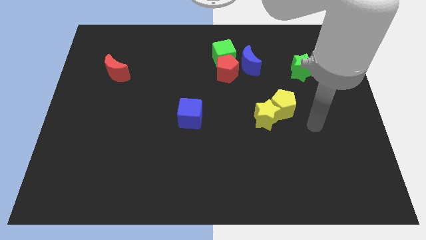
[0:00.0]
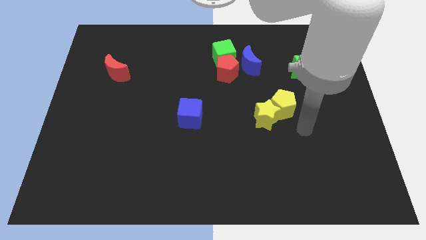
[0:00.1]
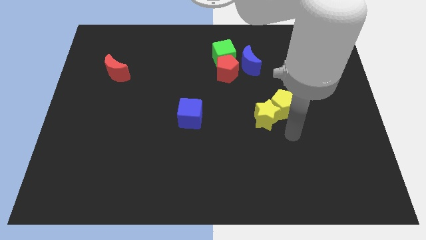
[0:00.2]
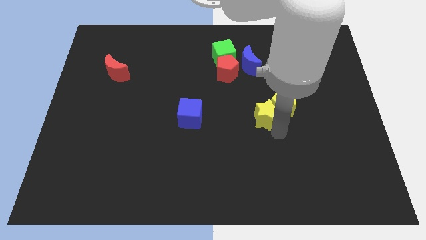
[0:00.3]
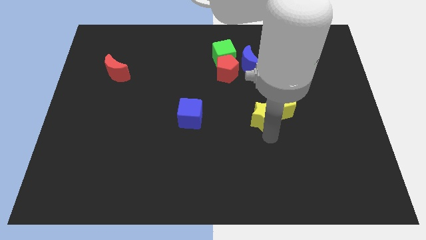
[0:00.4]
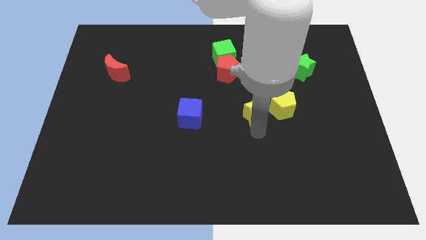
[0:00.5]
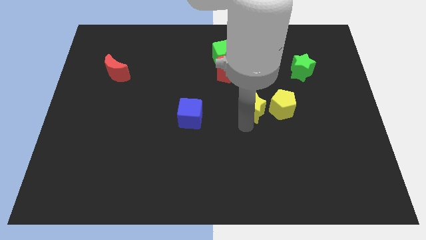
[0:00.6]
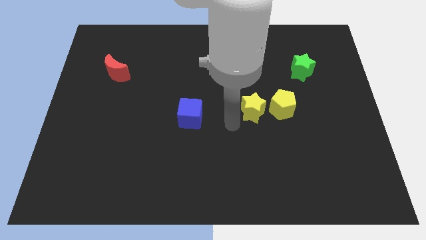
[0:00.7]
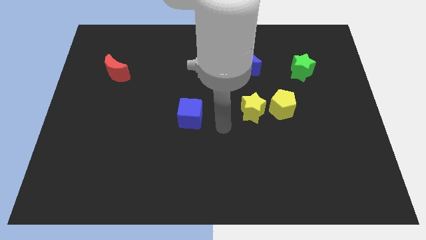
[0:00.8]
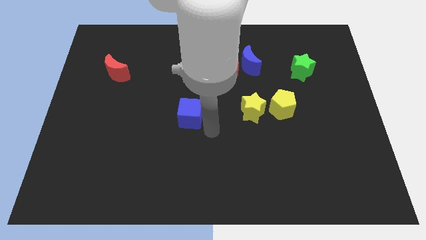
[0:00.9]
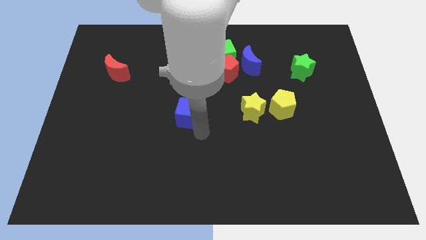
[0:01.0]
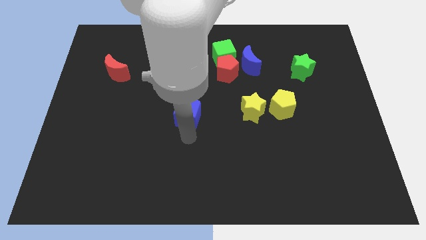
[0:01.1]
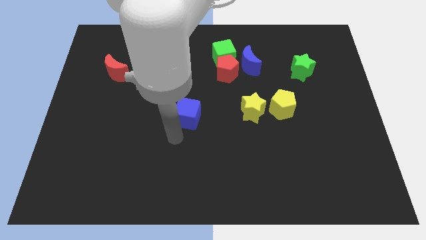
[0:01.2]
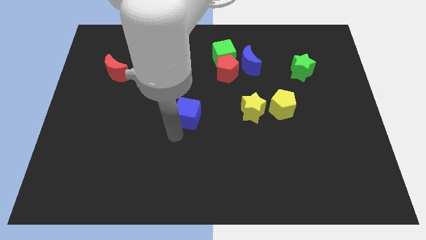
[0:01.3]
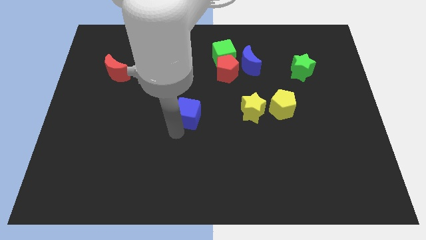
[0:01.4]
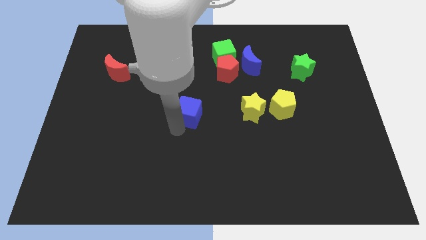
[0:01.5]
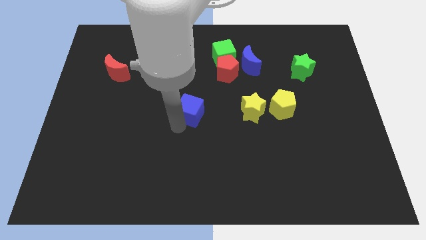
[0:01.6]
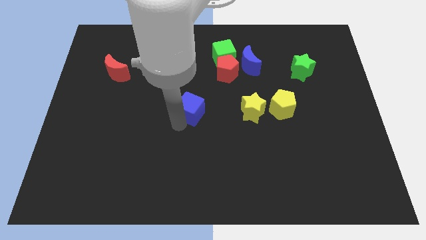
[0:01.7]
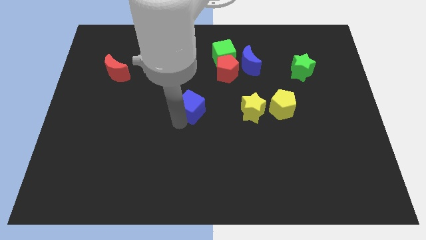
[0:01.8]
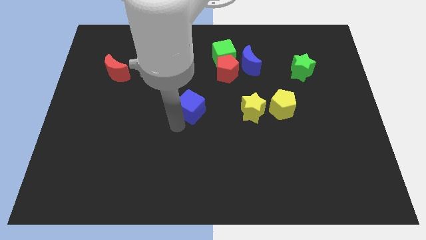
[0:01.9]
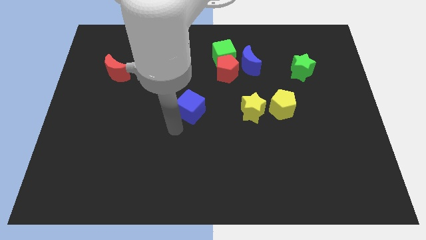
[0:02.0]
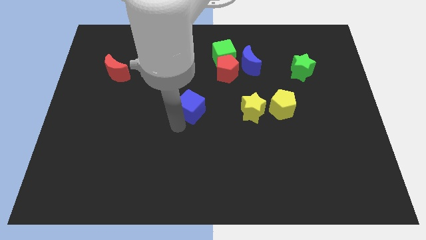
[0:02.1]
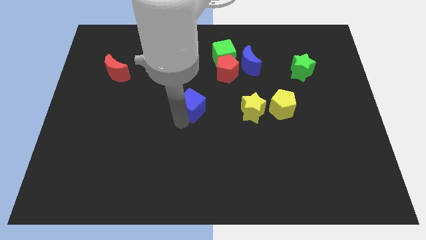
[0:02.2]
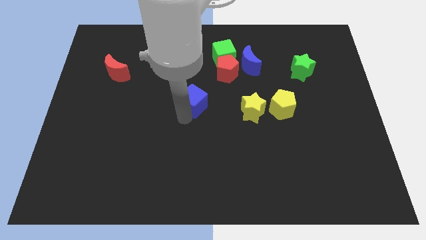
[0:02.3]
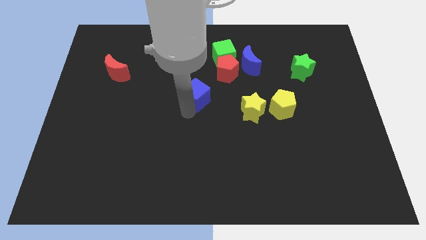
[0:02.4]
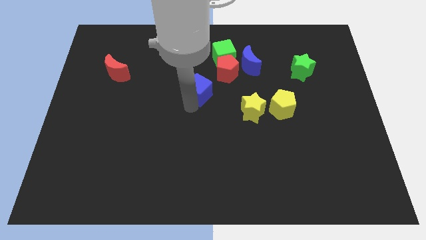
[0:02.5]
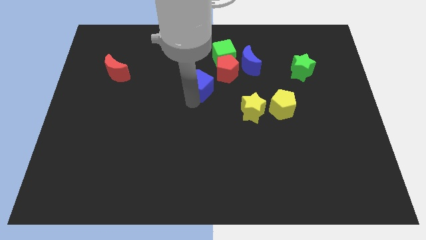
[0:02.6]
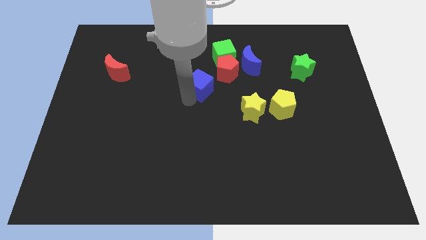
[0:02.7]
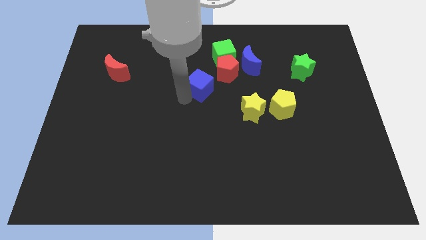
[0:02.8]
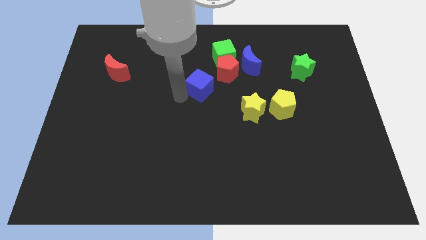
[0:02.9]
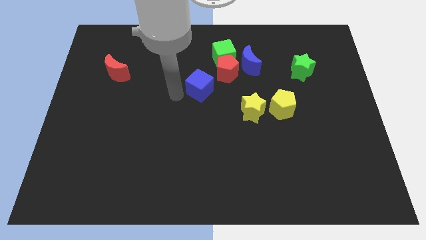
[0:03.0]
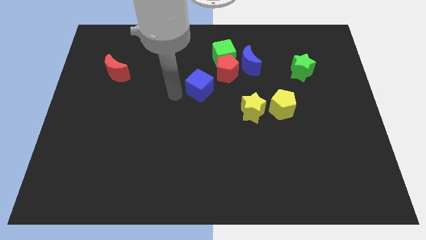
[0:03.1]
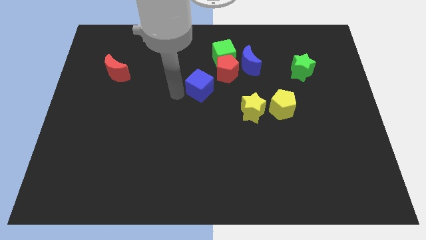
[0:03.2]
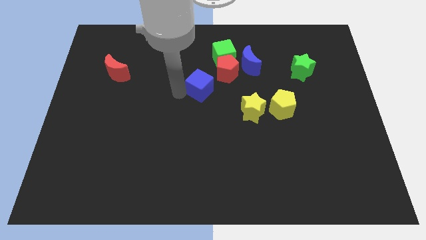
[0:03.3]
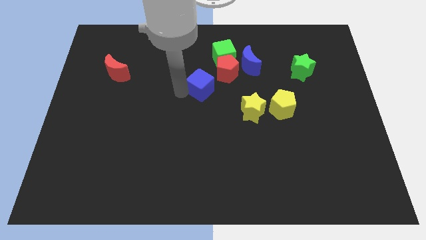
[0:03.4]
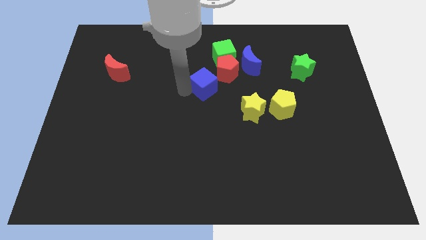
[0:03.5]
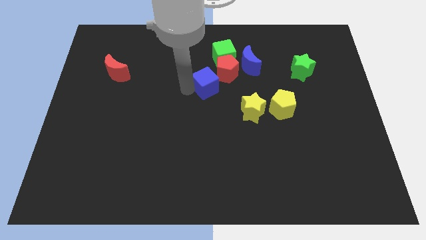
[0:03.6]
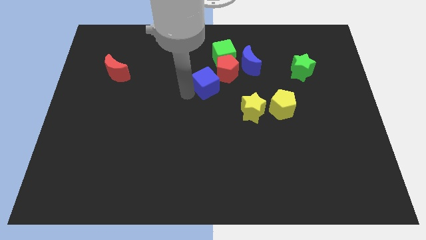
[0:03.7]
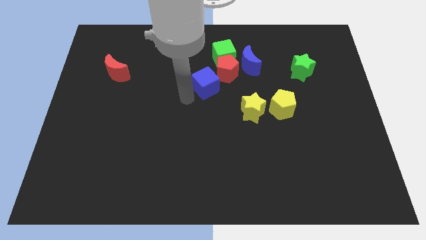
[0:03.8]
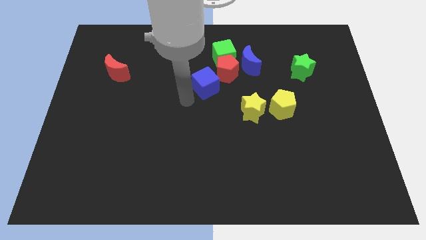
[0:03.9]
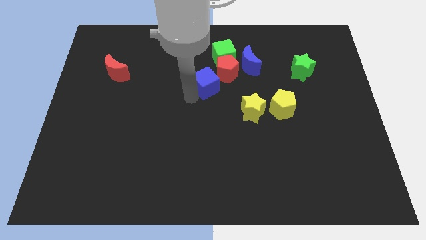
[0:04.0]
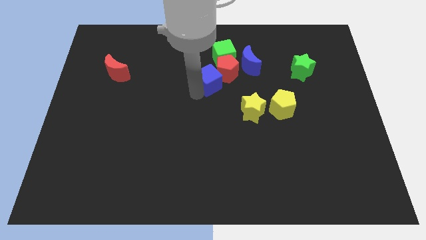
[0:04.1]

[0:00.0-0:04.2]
put the blue cube towards the red pentagon

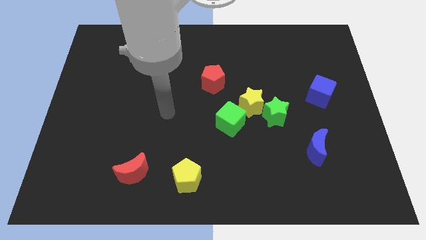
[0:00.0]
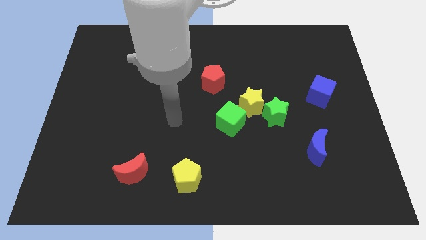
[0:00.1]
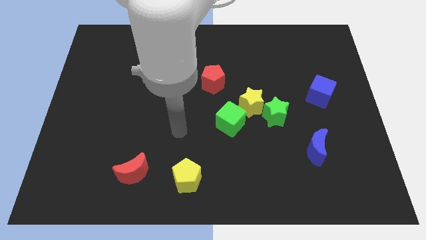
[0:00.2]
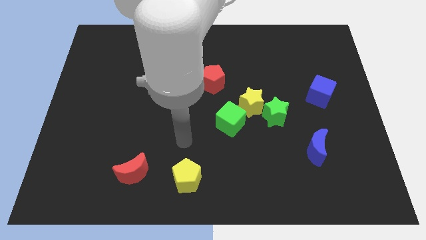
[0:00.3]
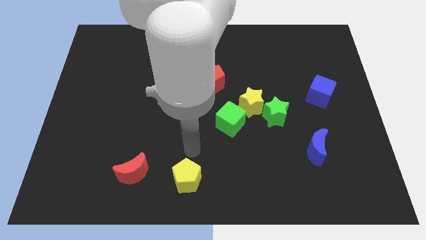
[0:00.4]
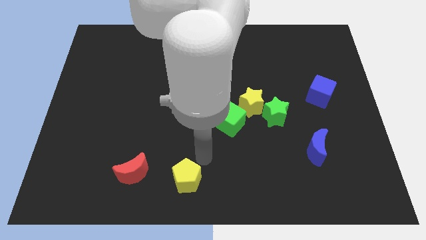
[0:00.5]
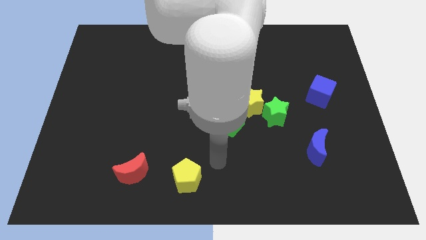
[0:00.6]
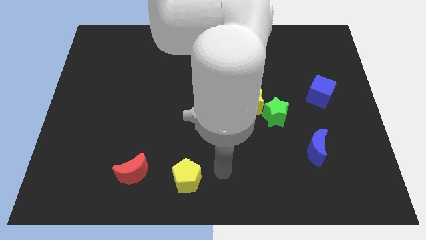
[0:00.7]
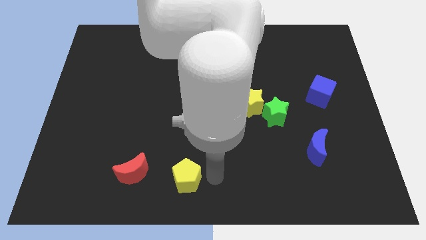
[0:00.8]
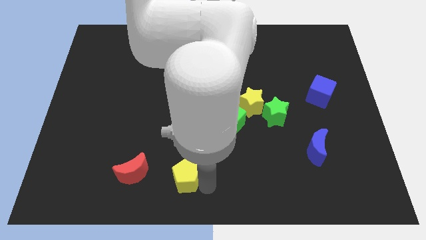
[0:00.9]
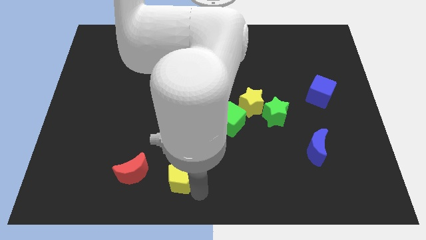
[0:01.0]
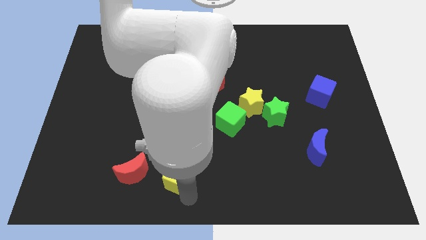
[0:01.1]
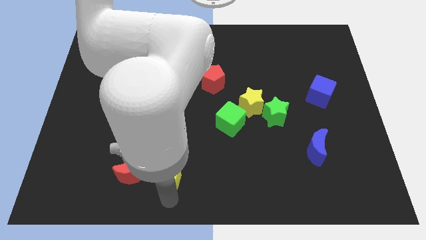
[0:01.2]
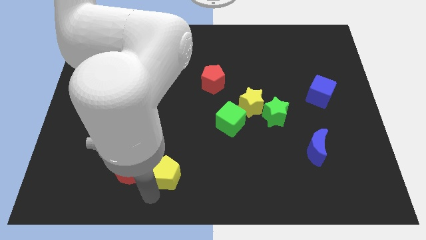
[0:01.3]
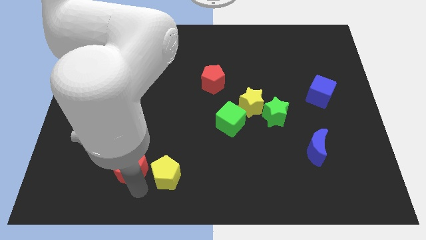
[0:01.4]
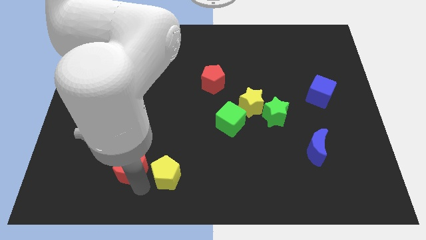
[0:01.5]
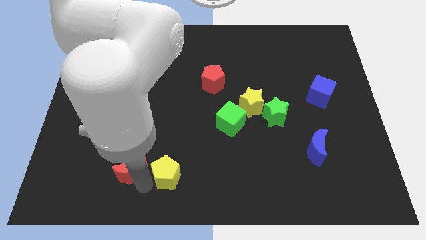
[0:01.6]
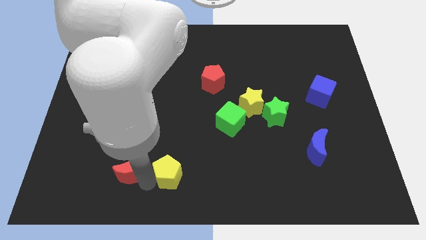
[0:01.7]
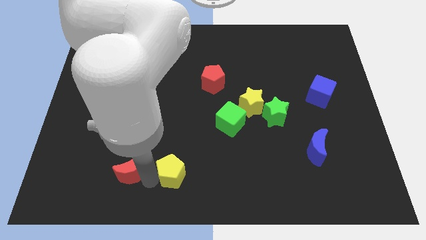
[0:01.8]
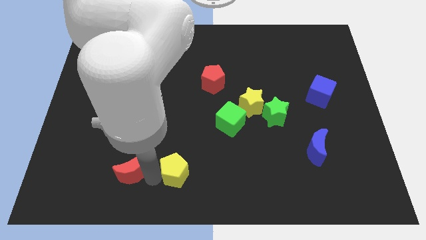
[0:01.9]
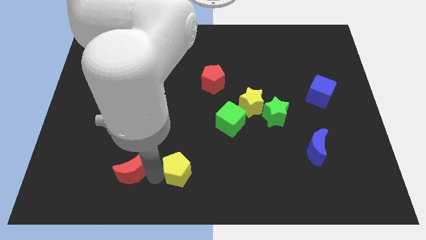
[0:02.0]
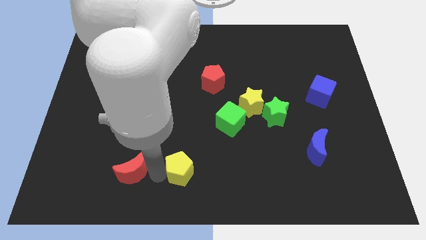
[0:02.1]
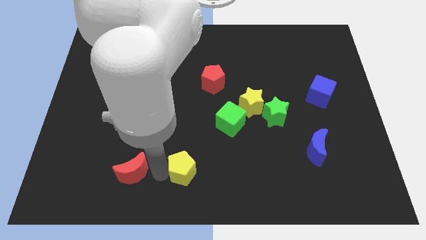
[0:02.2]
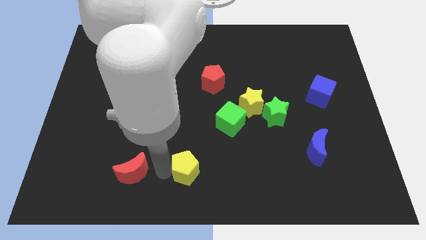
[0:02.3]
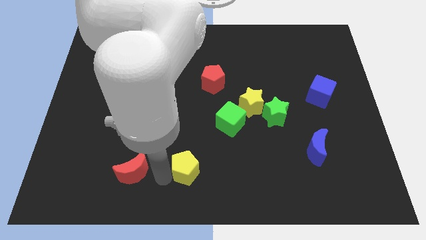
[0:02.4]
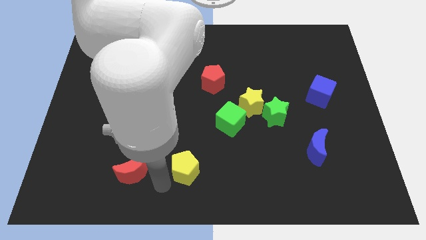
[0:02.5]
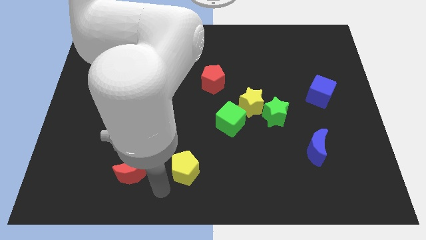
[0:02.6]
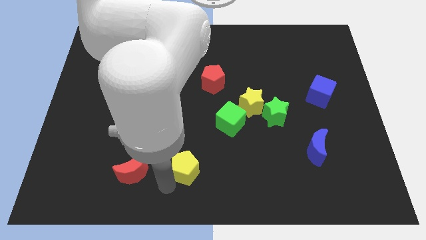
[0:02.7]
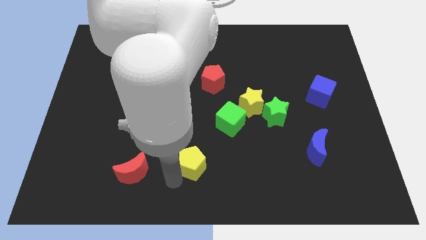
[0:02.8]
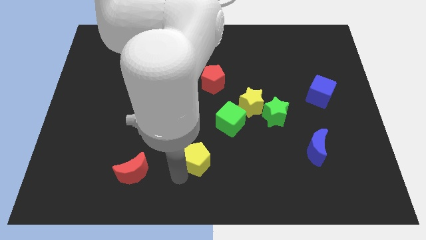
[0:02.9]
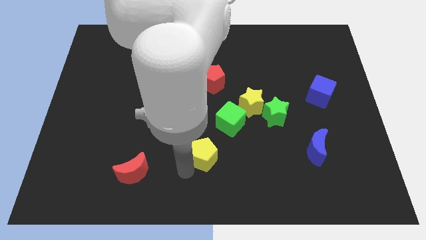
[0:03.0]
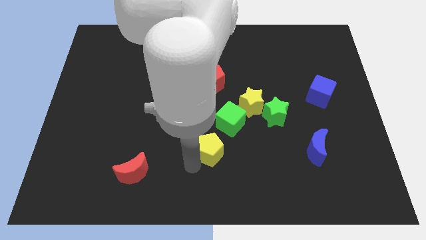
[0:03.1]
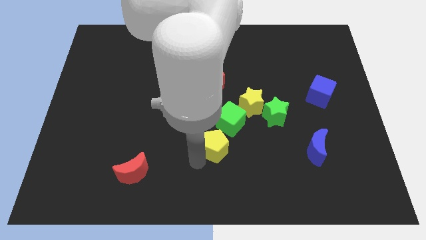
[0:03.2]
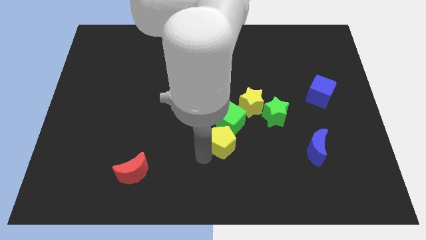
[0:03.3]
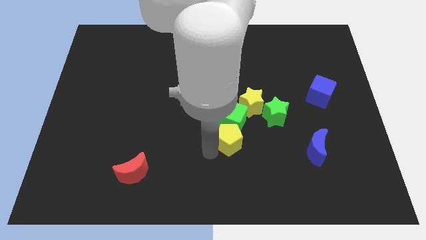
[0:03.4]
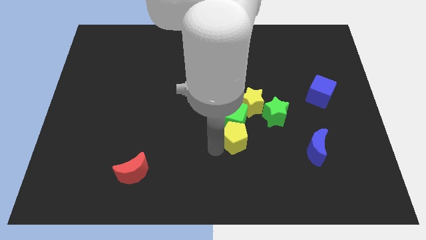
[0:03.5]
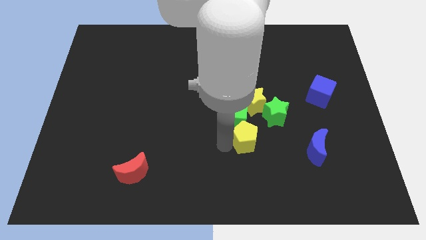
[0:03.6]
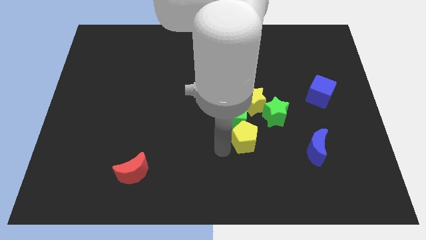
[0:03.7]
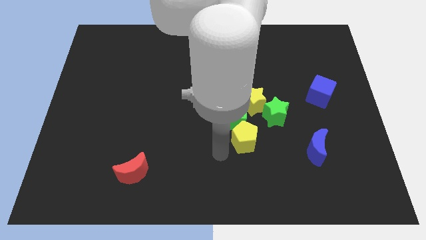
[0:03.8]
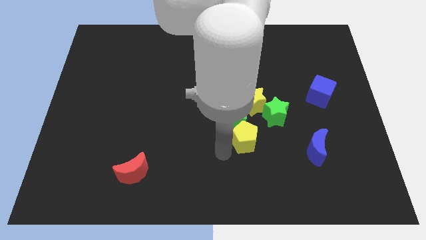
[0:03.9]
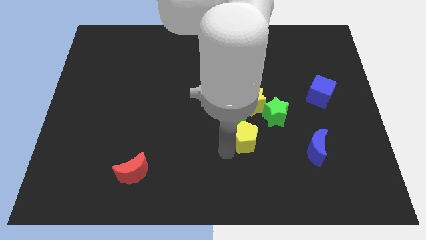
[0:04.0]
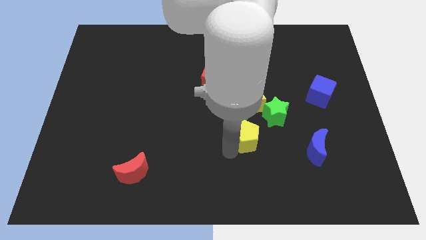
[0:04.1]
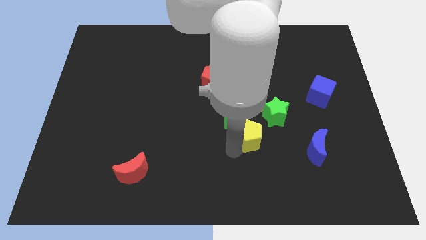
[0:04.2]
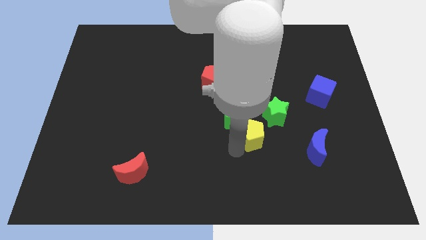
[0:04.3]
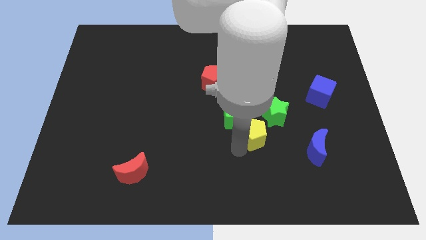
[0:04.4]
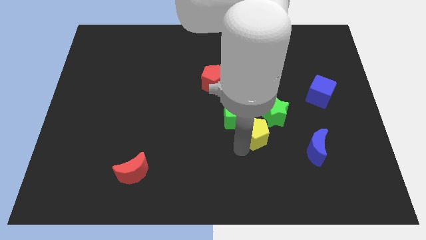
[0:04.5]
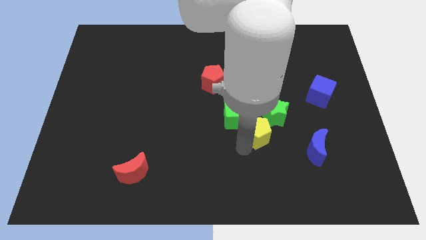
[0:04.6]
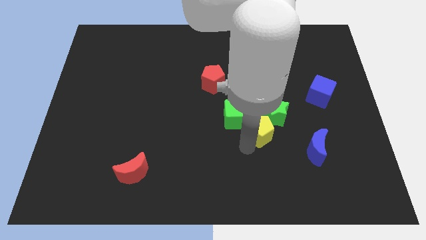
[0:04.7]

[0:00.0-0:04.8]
move the yellow pentagon close to the green star
